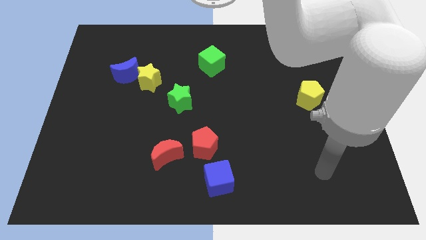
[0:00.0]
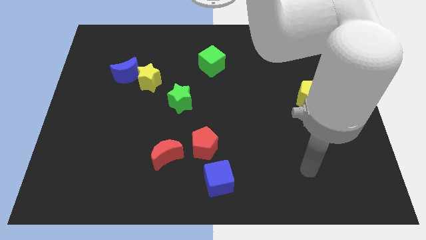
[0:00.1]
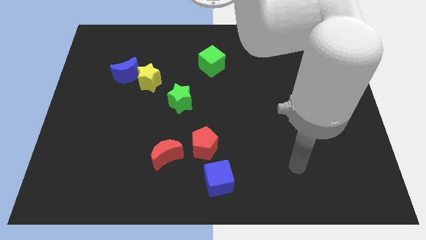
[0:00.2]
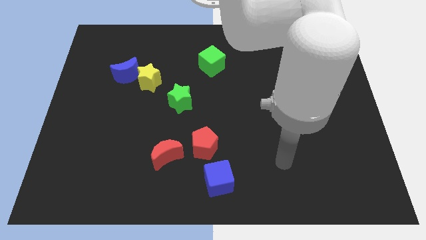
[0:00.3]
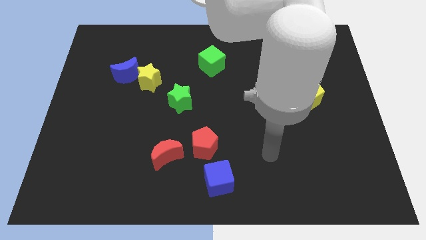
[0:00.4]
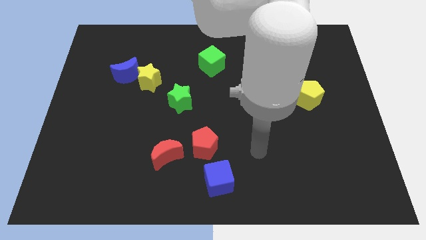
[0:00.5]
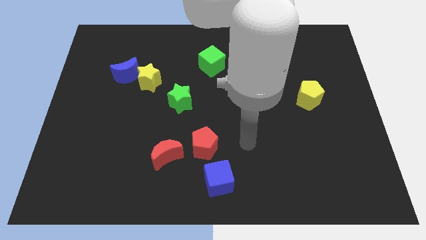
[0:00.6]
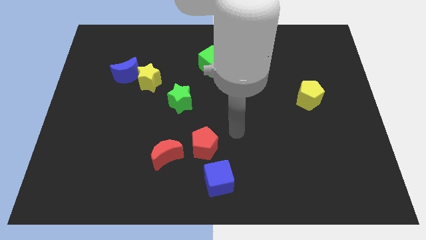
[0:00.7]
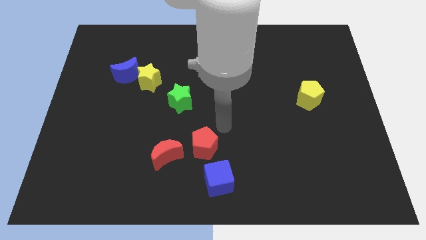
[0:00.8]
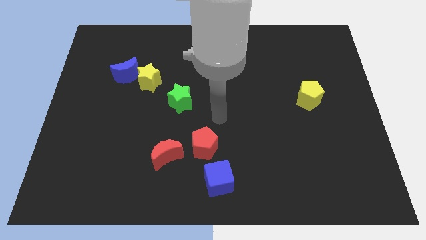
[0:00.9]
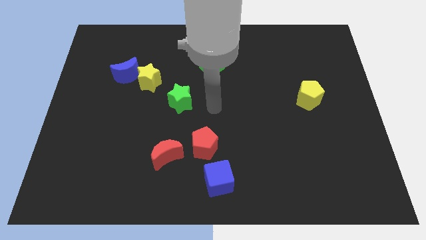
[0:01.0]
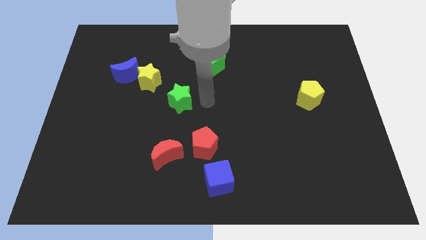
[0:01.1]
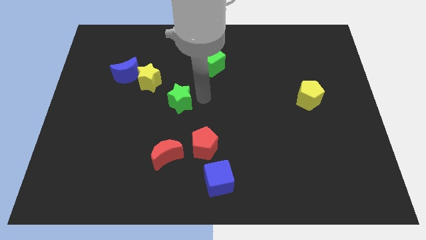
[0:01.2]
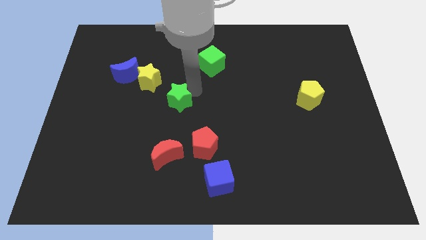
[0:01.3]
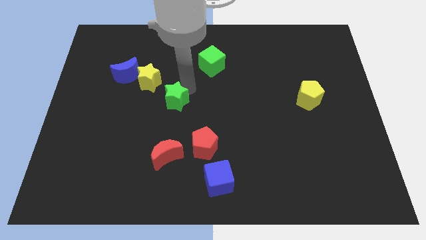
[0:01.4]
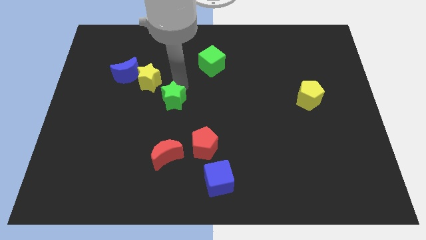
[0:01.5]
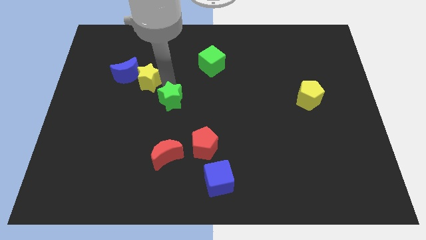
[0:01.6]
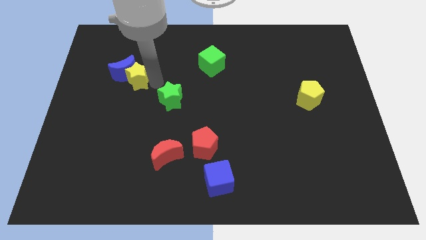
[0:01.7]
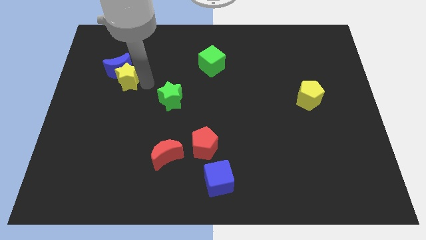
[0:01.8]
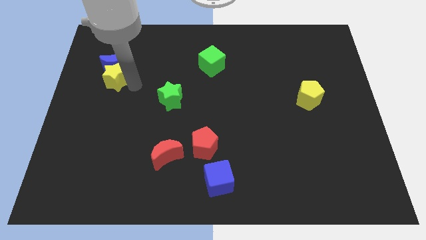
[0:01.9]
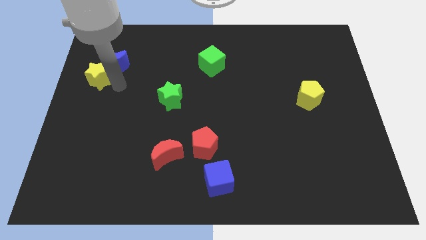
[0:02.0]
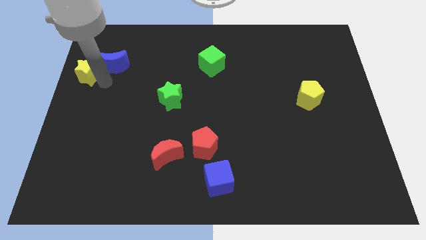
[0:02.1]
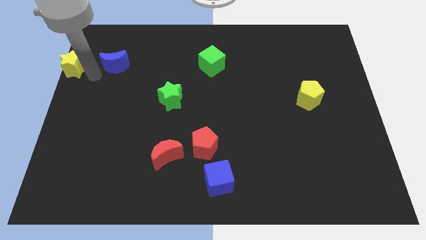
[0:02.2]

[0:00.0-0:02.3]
move the blue moon away from the yellow star

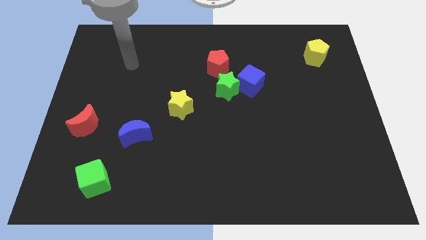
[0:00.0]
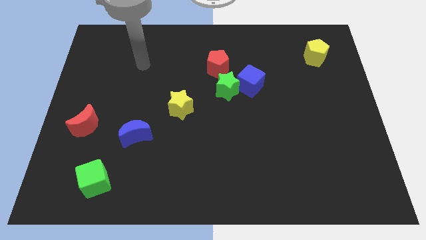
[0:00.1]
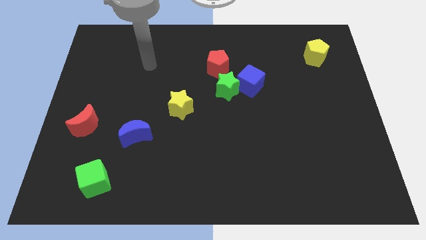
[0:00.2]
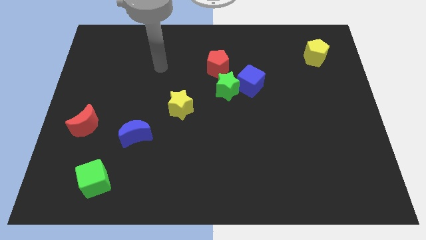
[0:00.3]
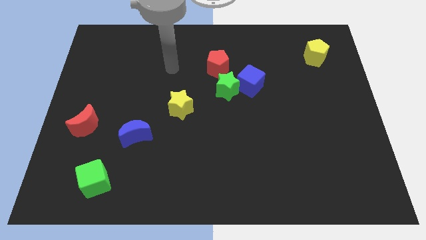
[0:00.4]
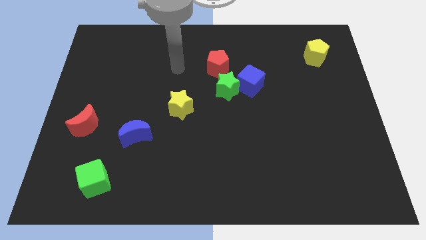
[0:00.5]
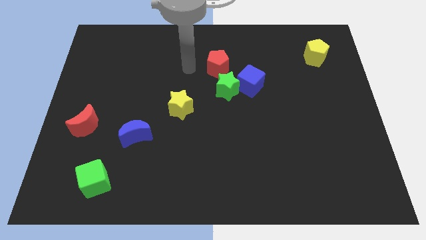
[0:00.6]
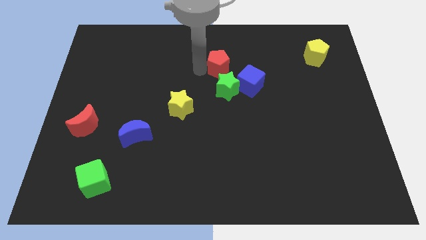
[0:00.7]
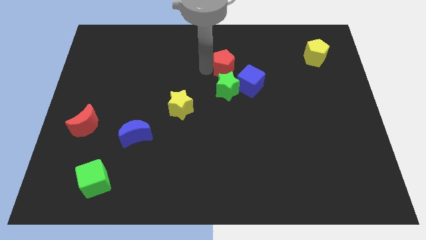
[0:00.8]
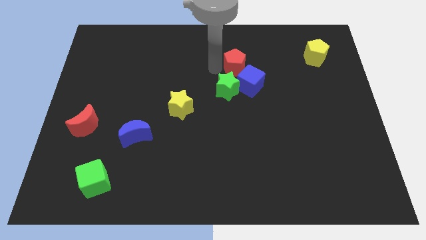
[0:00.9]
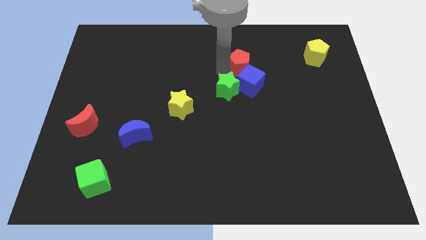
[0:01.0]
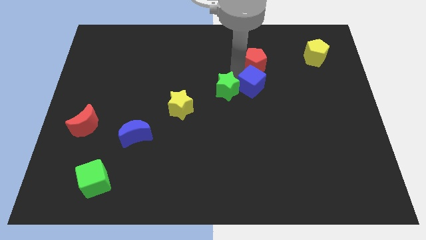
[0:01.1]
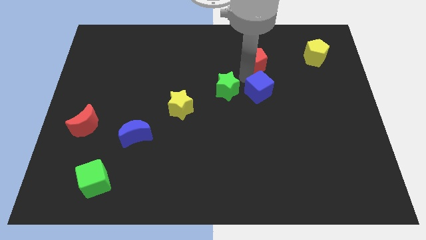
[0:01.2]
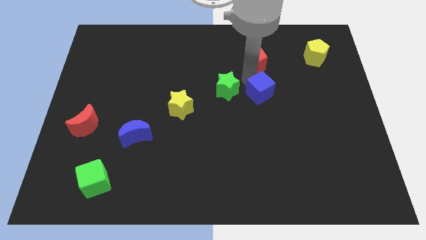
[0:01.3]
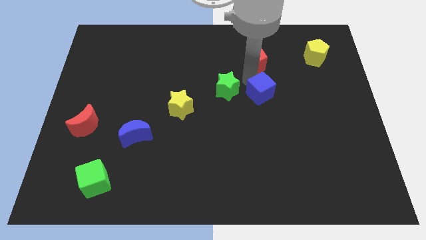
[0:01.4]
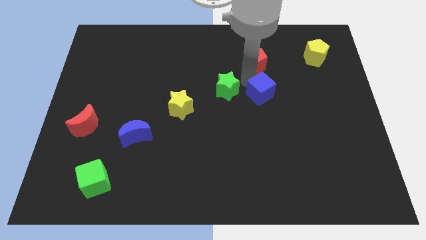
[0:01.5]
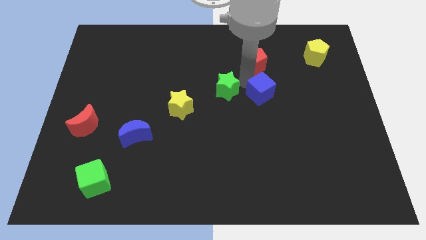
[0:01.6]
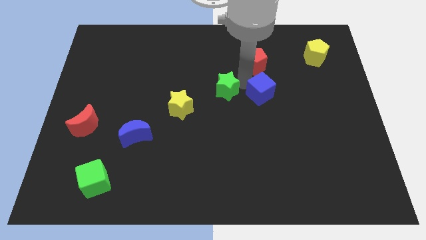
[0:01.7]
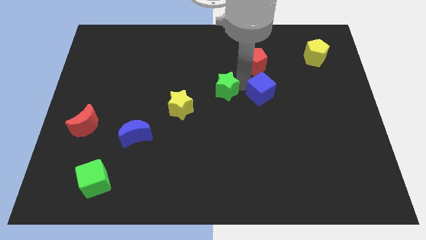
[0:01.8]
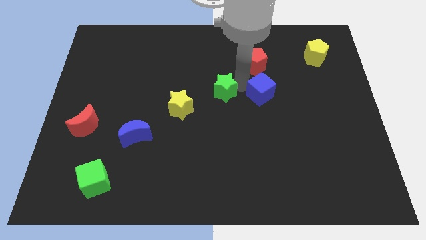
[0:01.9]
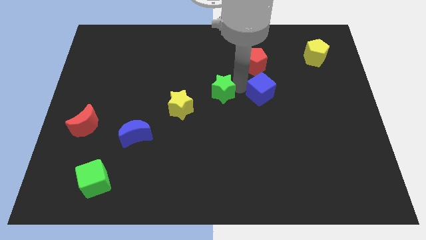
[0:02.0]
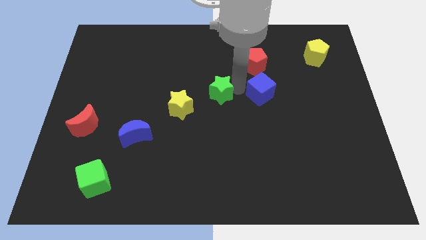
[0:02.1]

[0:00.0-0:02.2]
move the green star away from the blue cube and red pentagon

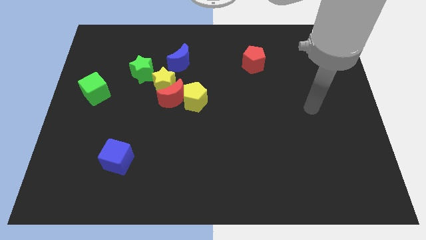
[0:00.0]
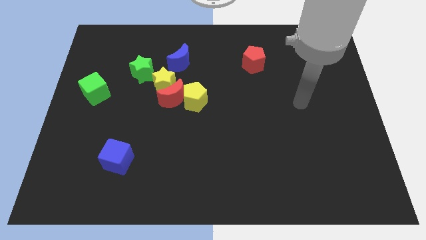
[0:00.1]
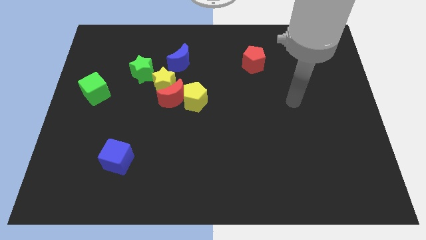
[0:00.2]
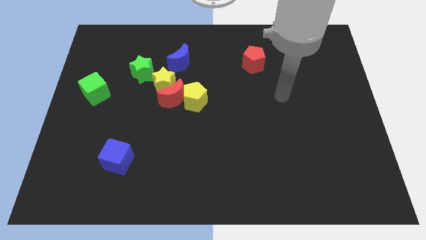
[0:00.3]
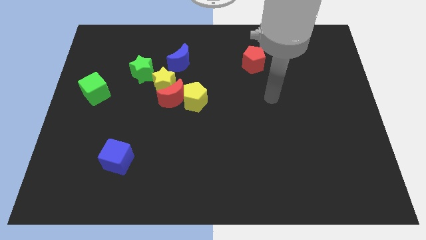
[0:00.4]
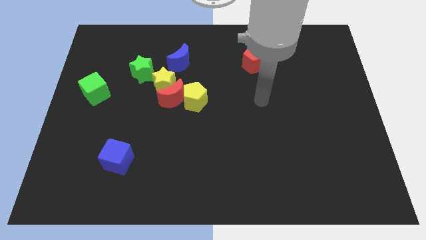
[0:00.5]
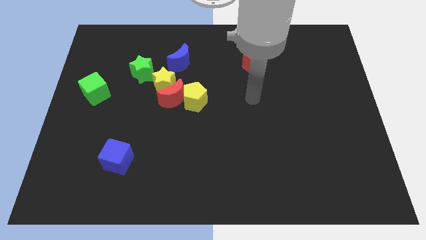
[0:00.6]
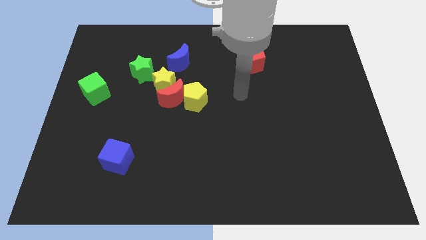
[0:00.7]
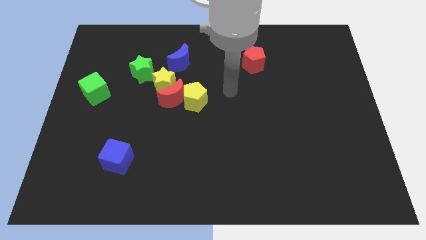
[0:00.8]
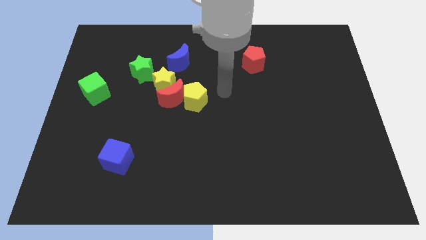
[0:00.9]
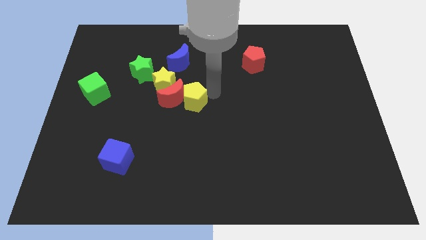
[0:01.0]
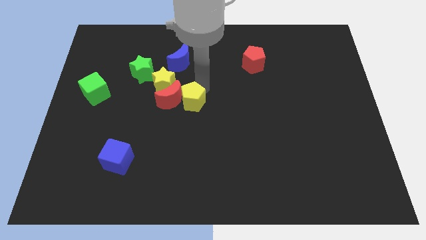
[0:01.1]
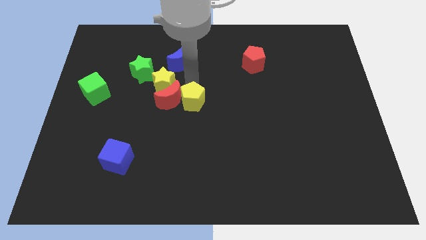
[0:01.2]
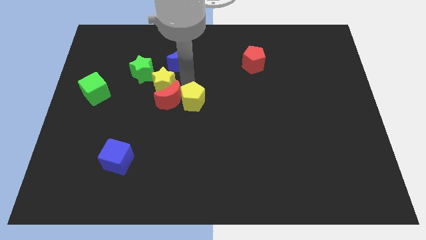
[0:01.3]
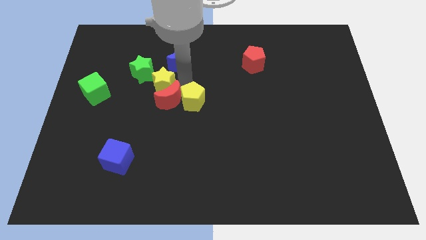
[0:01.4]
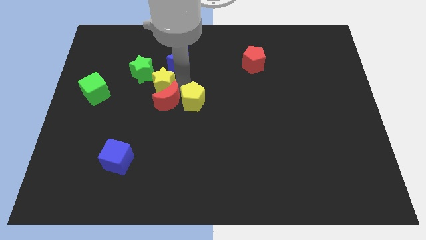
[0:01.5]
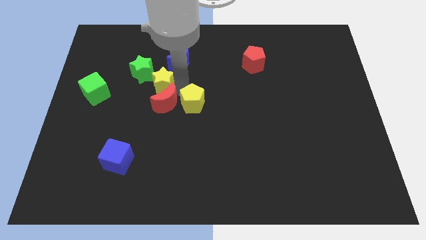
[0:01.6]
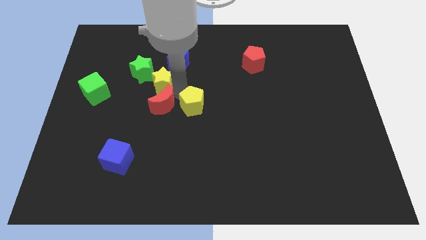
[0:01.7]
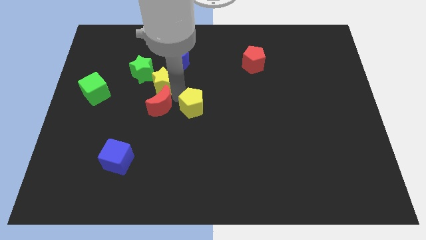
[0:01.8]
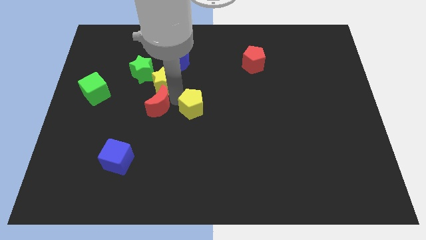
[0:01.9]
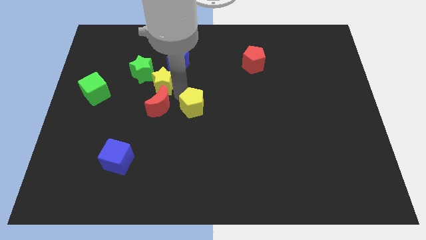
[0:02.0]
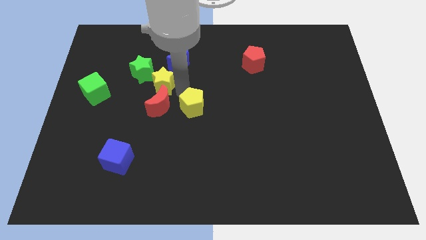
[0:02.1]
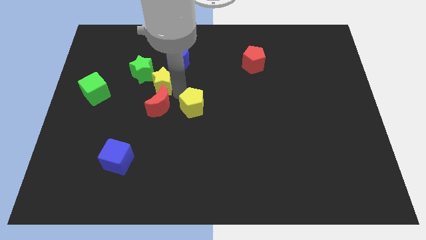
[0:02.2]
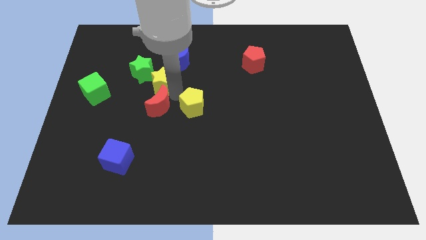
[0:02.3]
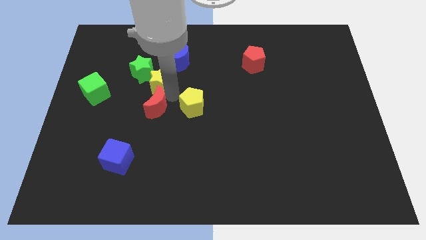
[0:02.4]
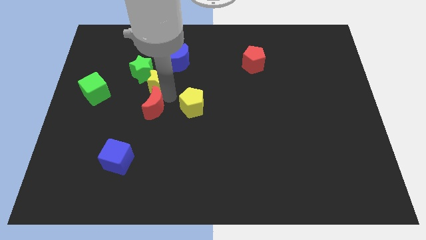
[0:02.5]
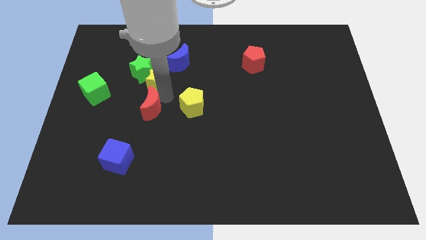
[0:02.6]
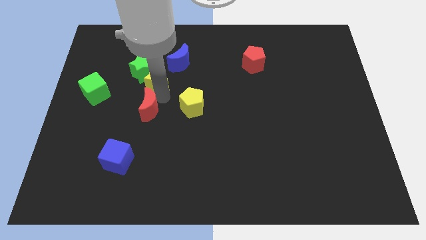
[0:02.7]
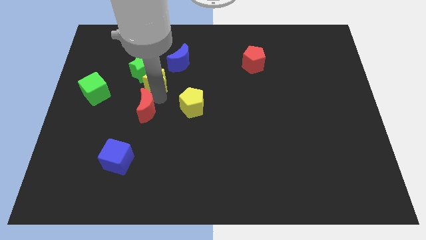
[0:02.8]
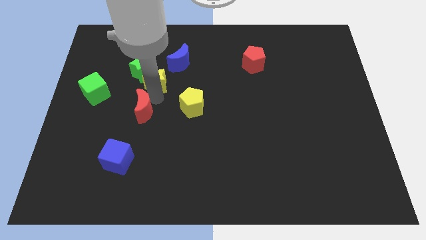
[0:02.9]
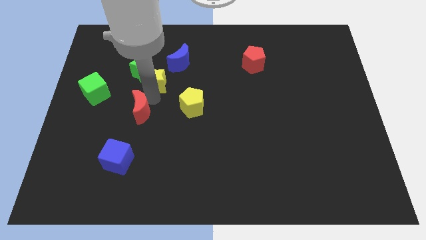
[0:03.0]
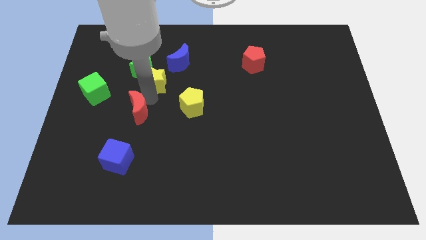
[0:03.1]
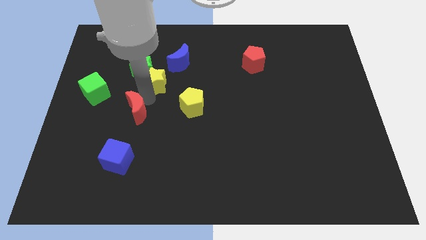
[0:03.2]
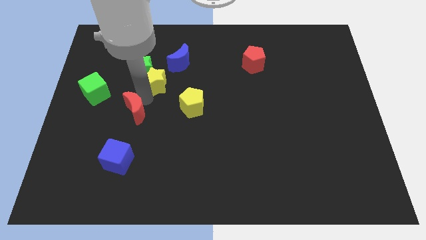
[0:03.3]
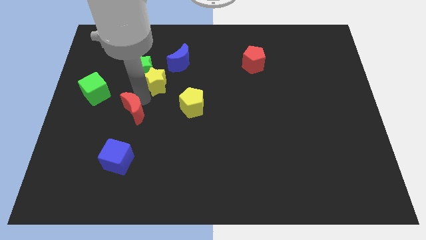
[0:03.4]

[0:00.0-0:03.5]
move the red moon away from the yellow star and yellow pentagon

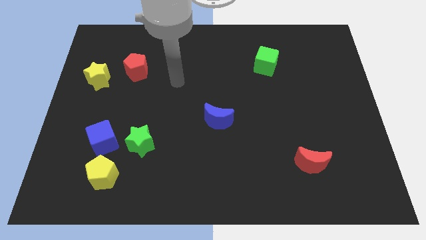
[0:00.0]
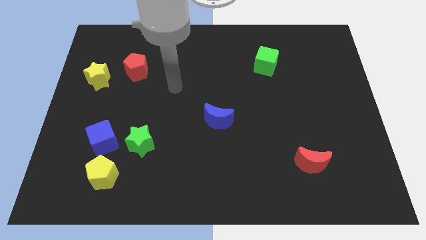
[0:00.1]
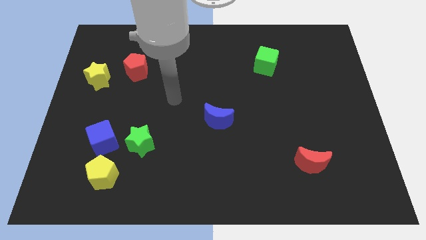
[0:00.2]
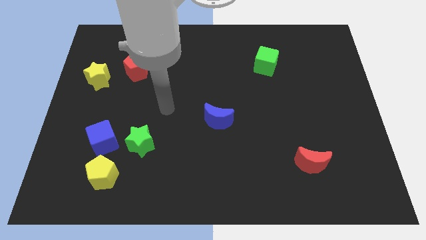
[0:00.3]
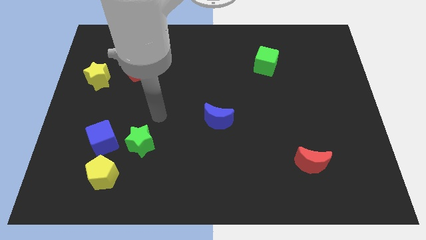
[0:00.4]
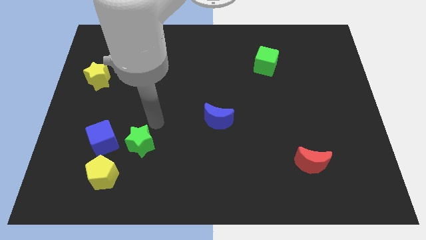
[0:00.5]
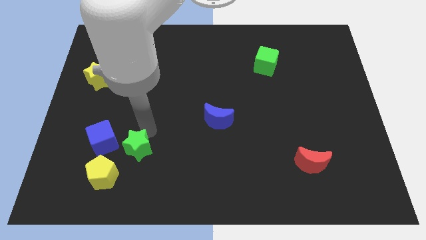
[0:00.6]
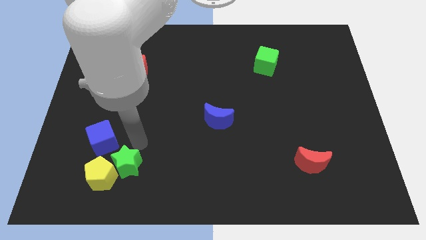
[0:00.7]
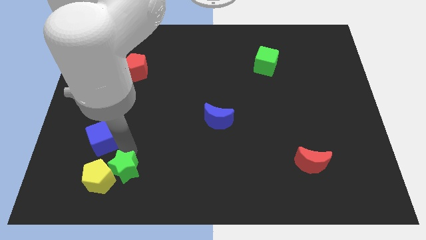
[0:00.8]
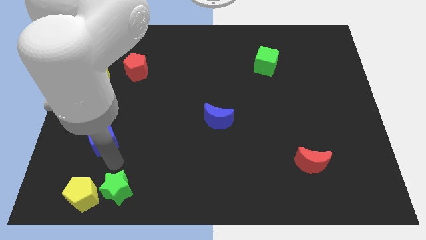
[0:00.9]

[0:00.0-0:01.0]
pull the blue cube apart from the green star and yellow pentagon

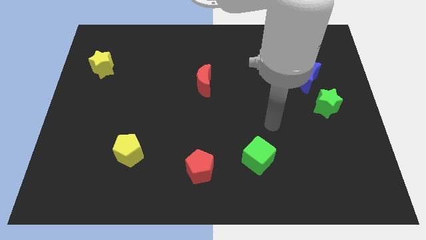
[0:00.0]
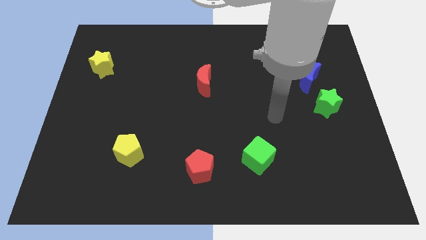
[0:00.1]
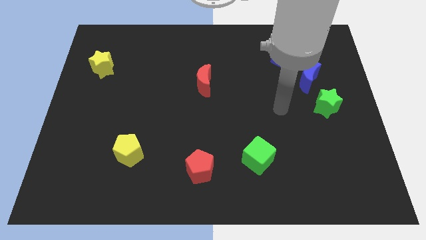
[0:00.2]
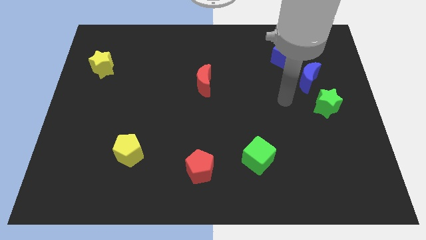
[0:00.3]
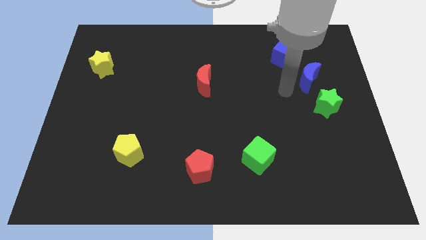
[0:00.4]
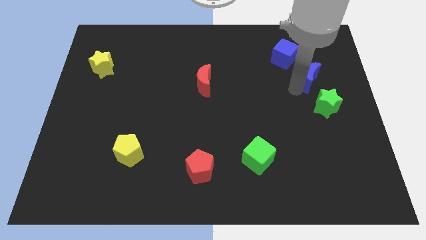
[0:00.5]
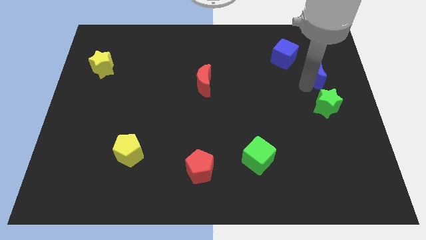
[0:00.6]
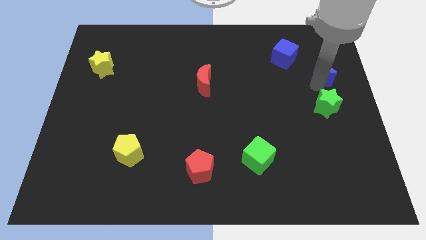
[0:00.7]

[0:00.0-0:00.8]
move the green star away from the blue moon
